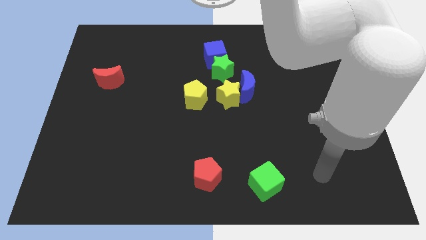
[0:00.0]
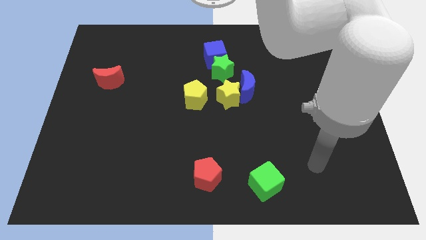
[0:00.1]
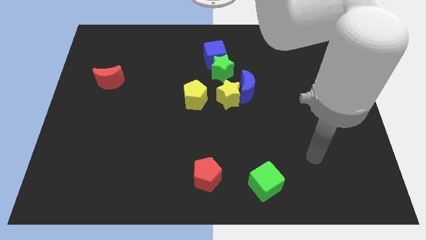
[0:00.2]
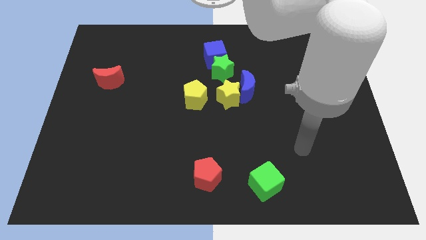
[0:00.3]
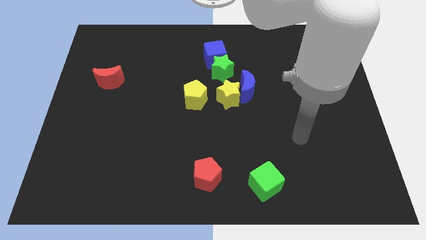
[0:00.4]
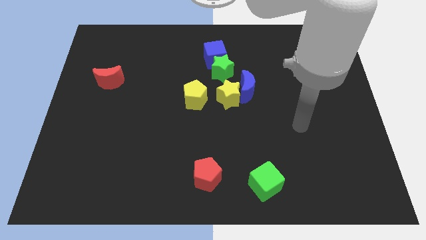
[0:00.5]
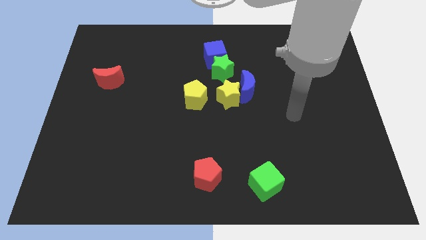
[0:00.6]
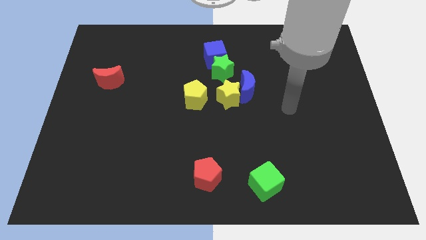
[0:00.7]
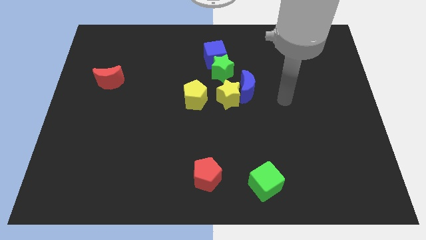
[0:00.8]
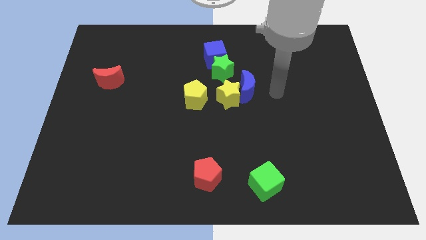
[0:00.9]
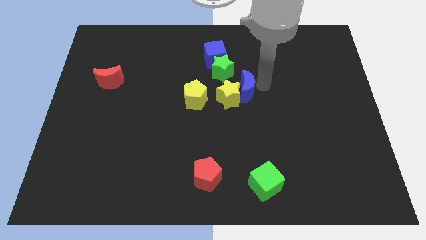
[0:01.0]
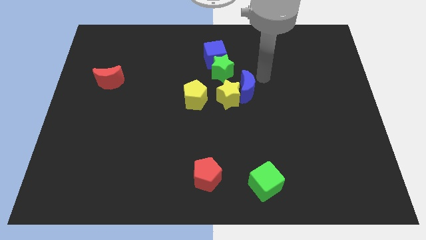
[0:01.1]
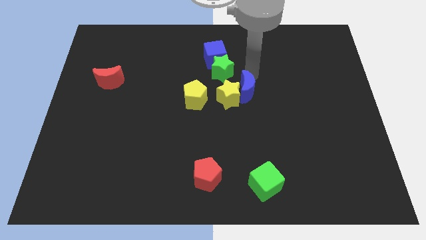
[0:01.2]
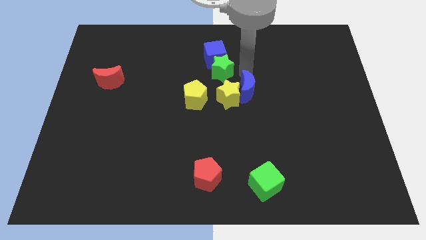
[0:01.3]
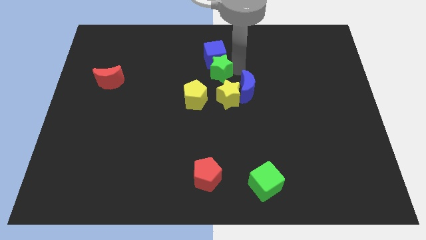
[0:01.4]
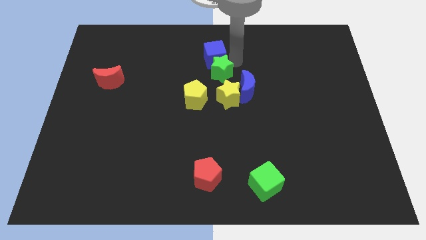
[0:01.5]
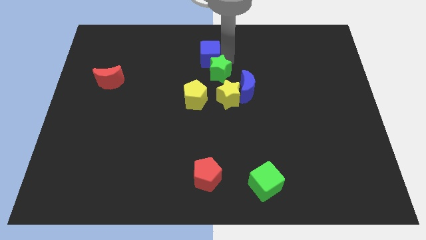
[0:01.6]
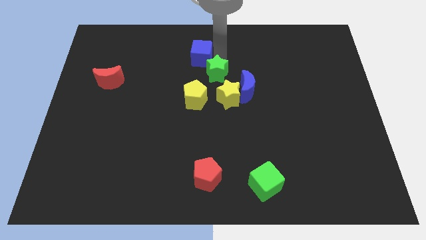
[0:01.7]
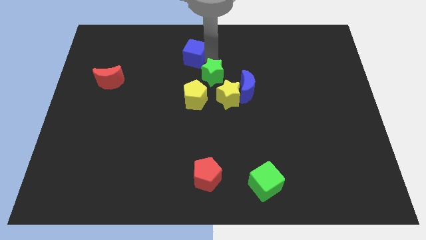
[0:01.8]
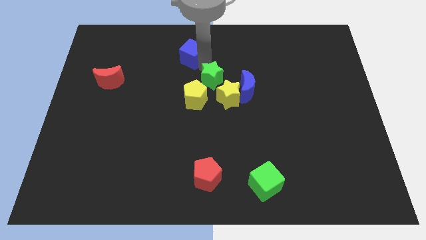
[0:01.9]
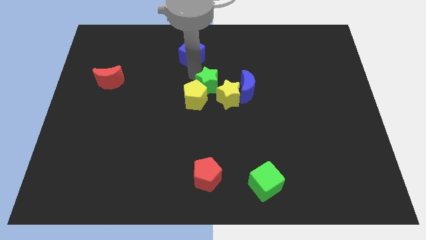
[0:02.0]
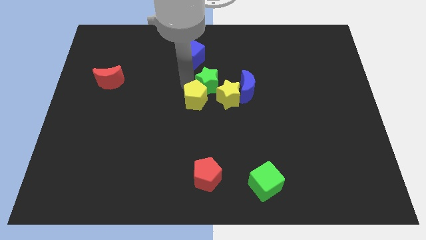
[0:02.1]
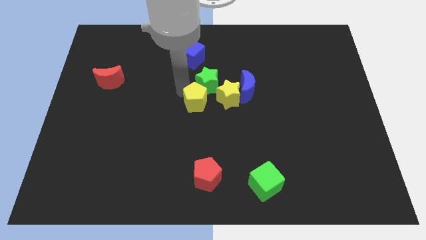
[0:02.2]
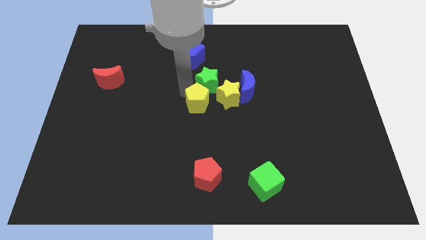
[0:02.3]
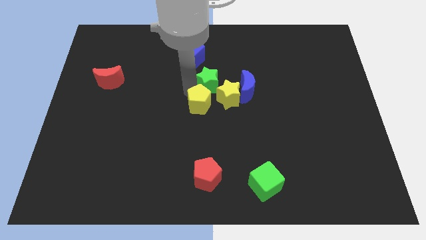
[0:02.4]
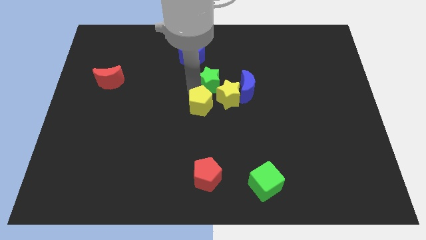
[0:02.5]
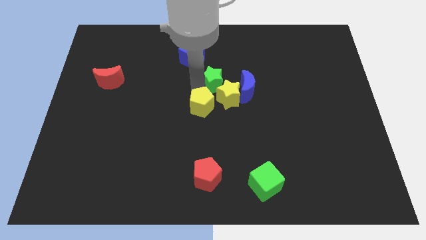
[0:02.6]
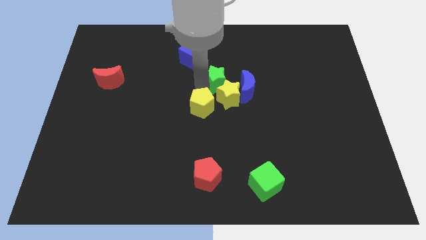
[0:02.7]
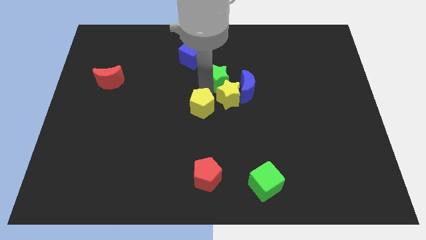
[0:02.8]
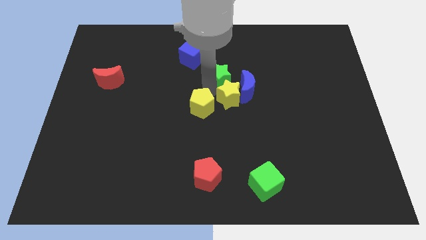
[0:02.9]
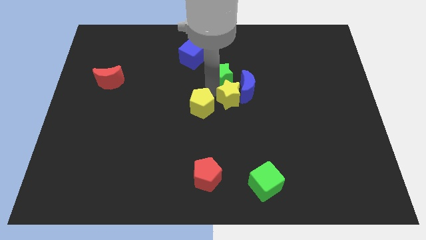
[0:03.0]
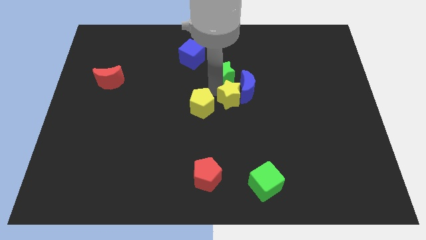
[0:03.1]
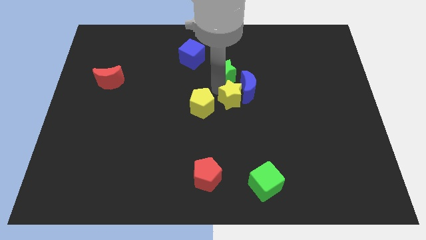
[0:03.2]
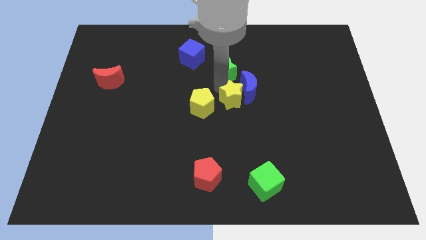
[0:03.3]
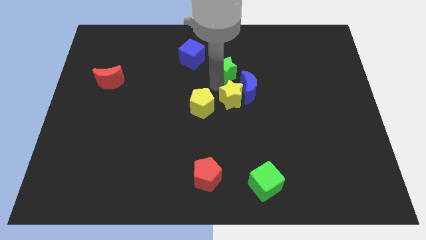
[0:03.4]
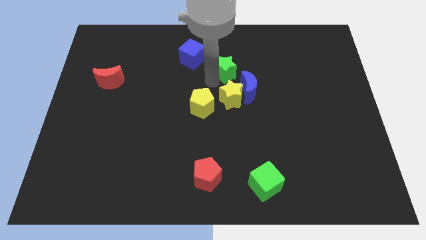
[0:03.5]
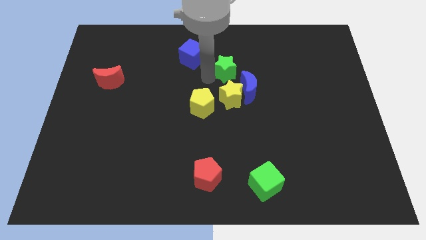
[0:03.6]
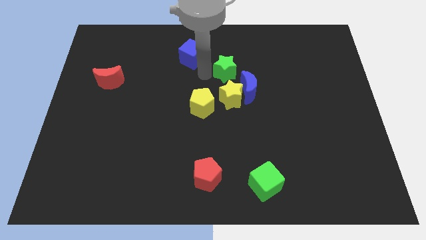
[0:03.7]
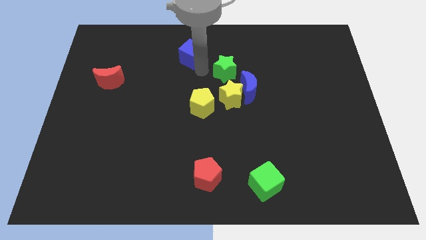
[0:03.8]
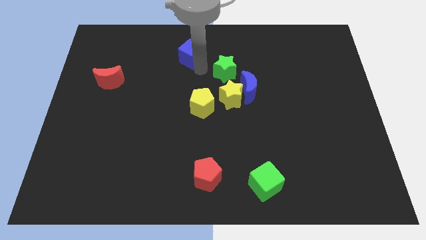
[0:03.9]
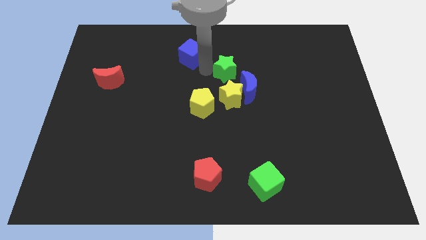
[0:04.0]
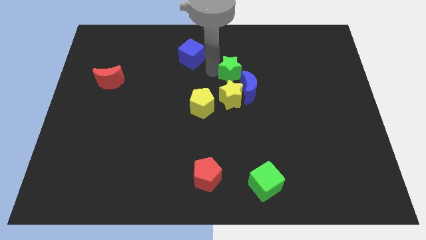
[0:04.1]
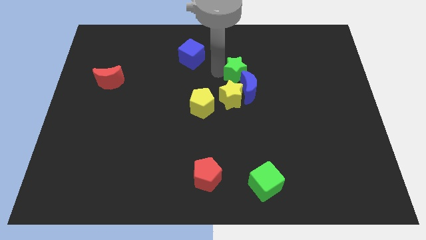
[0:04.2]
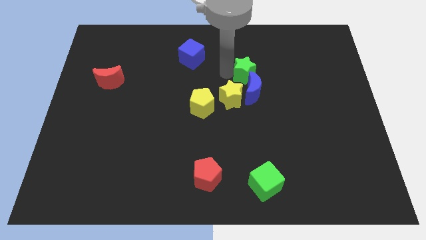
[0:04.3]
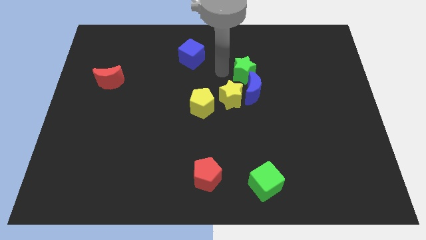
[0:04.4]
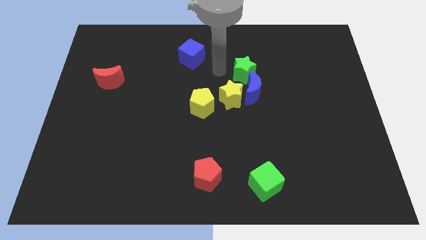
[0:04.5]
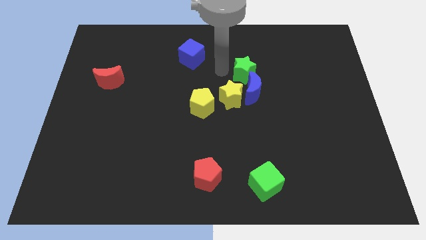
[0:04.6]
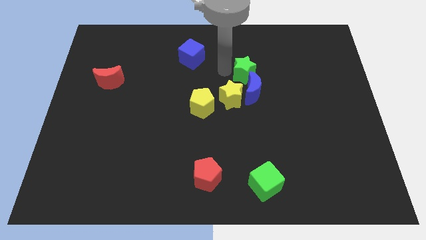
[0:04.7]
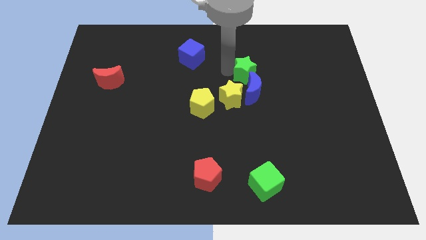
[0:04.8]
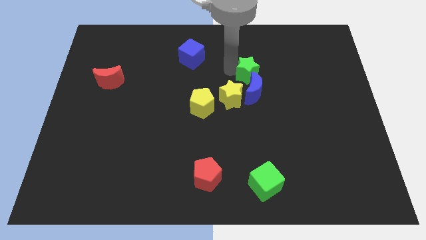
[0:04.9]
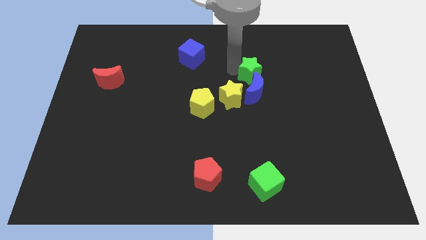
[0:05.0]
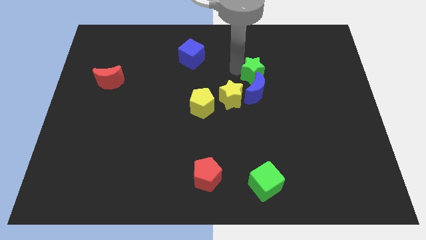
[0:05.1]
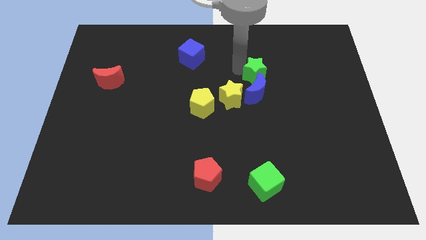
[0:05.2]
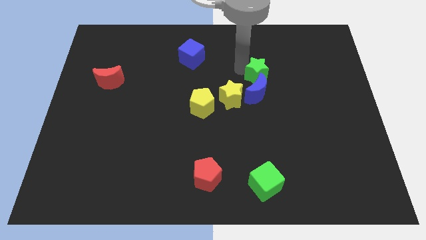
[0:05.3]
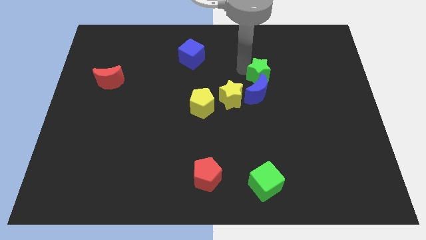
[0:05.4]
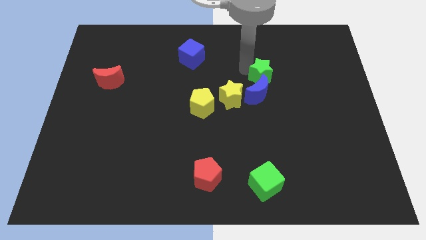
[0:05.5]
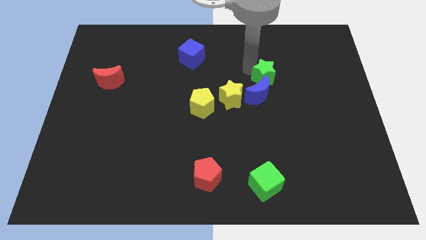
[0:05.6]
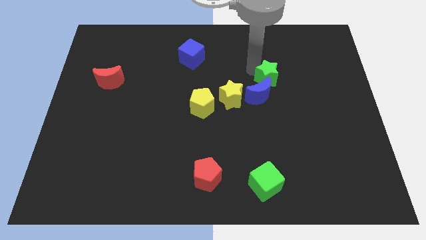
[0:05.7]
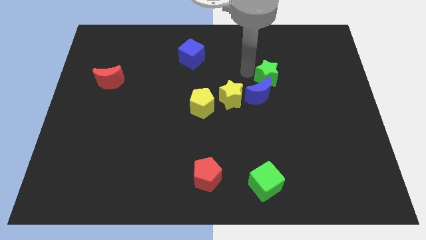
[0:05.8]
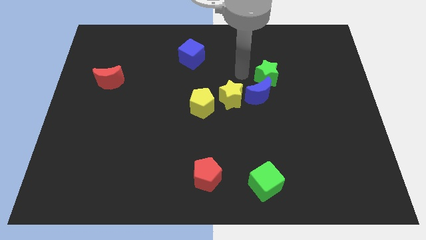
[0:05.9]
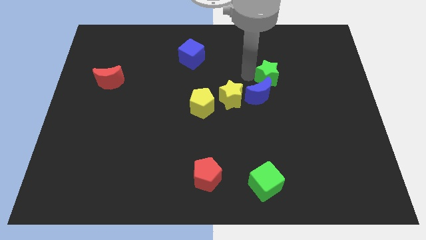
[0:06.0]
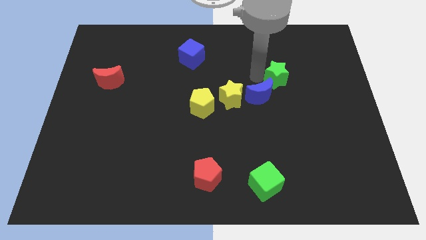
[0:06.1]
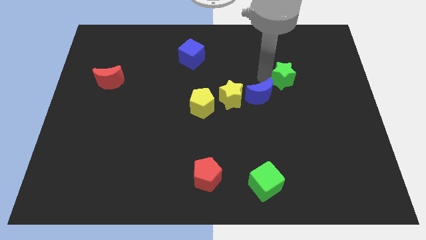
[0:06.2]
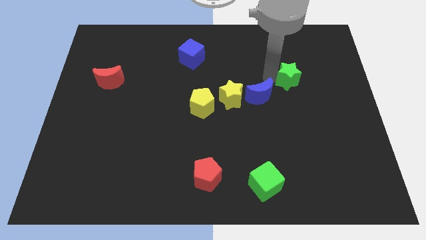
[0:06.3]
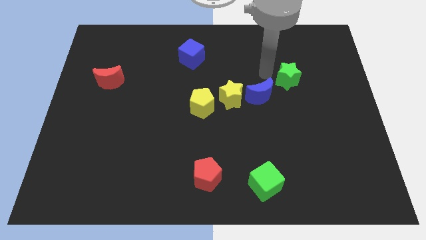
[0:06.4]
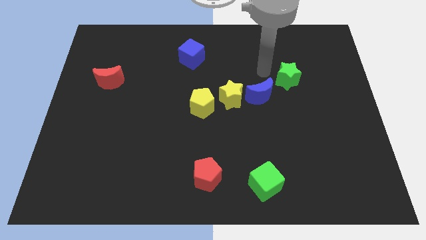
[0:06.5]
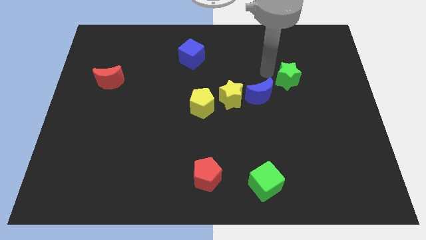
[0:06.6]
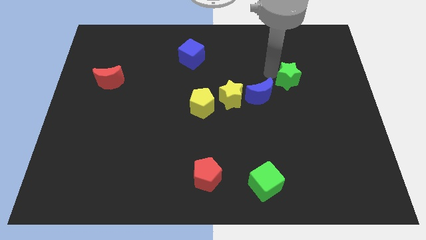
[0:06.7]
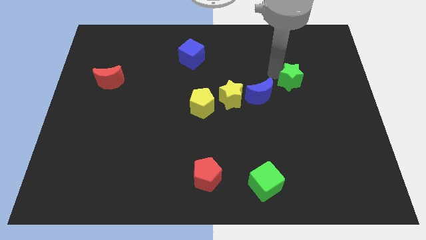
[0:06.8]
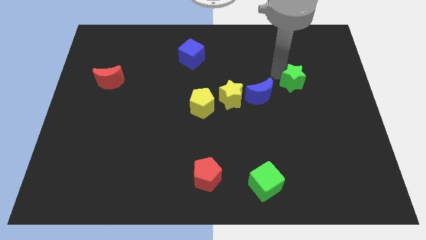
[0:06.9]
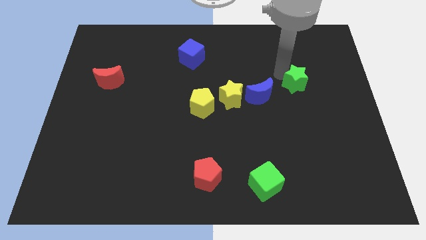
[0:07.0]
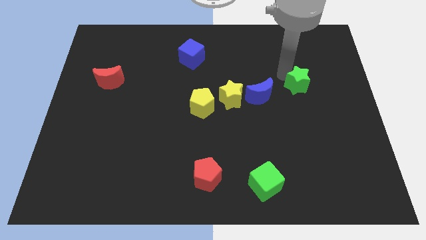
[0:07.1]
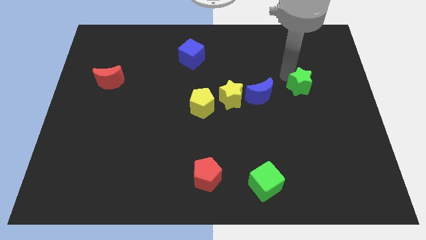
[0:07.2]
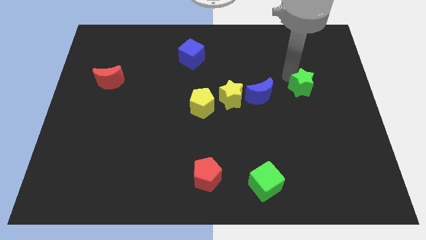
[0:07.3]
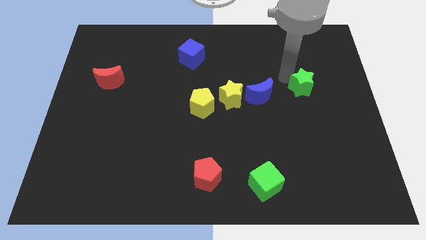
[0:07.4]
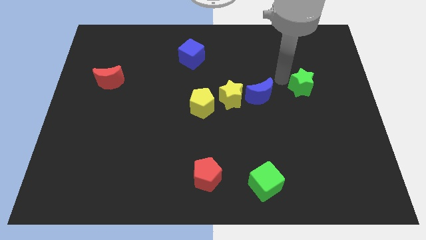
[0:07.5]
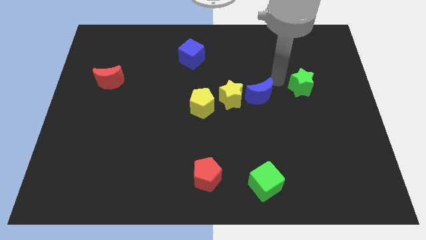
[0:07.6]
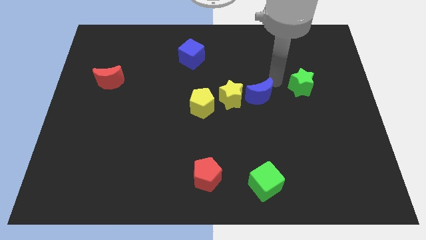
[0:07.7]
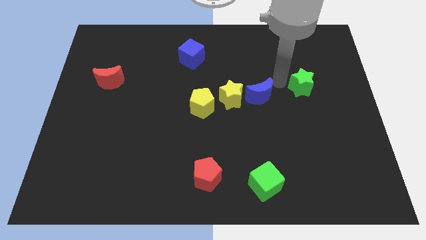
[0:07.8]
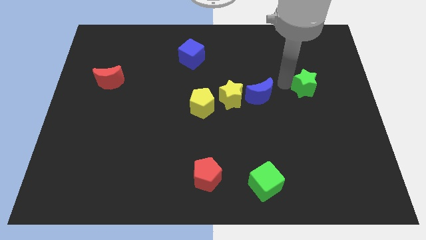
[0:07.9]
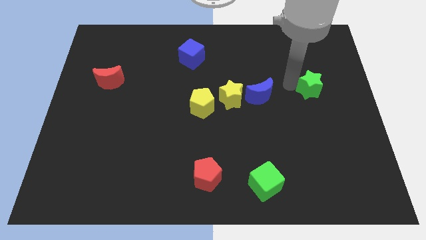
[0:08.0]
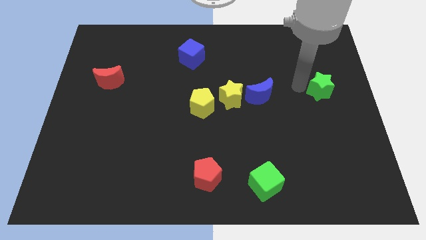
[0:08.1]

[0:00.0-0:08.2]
push the green star to the right side of the board
